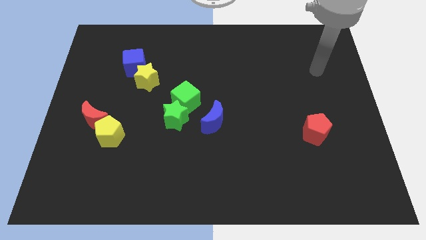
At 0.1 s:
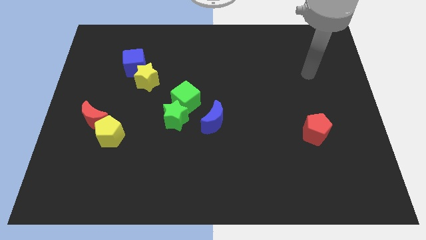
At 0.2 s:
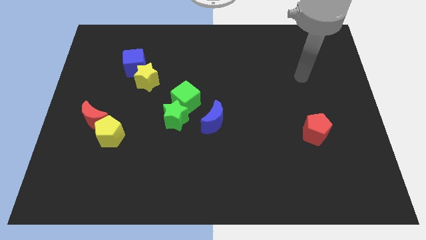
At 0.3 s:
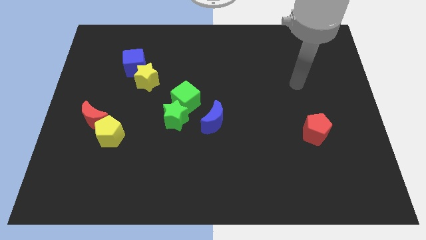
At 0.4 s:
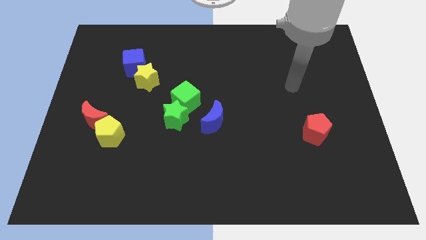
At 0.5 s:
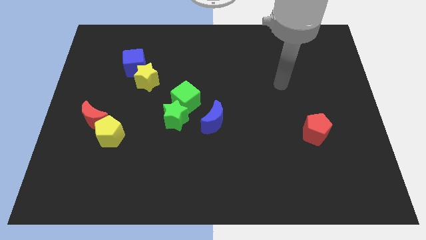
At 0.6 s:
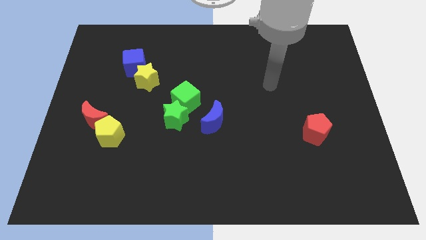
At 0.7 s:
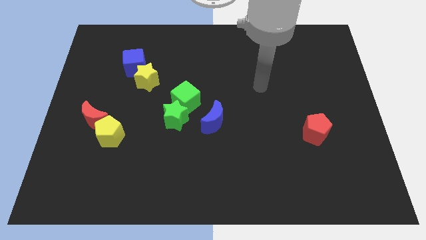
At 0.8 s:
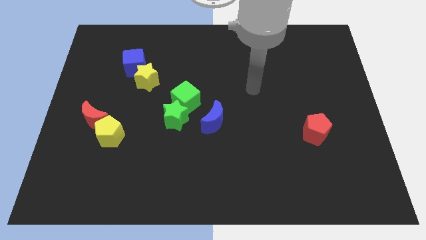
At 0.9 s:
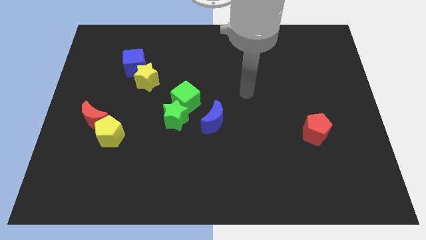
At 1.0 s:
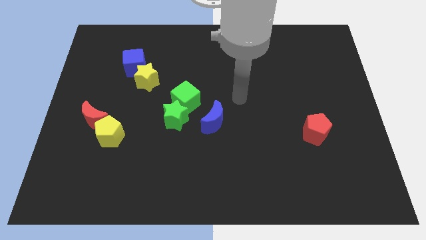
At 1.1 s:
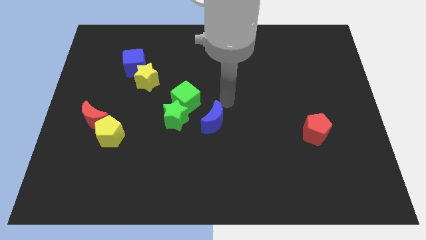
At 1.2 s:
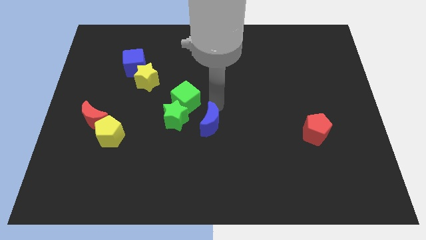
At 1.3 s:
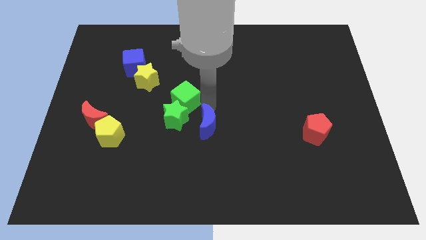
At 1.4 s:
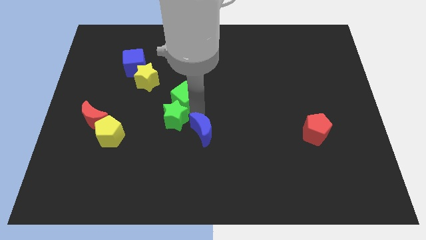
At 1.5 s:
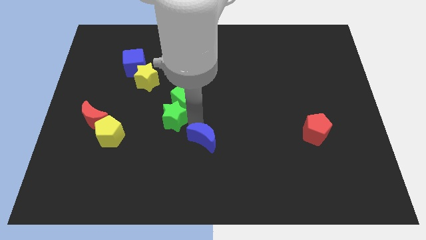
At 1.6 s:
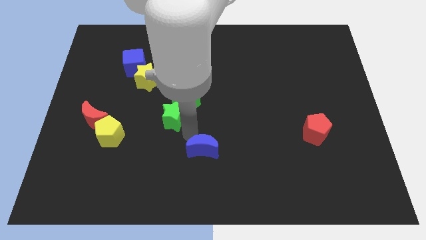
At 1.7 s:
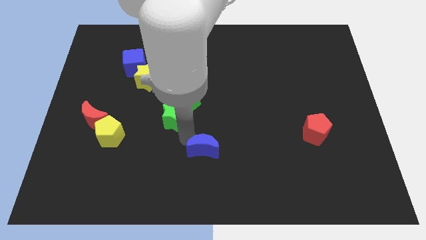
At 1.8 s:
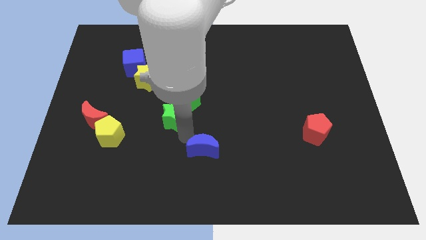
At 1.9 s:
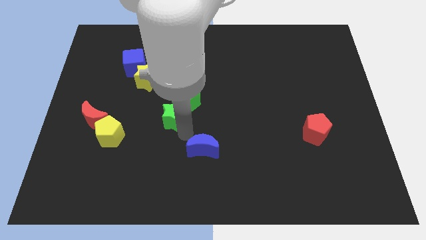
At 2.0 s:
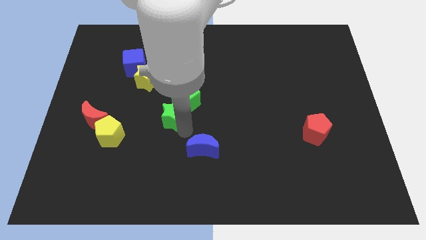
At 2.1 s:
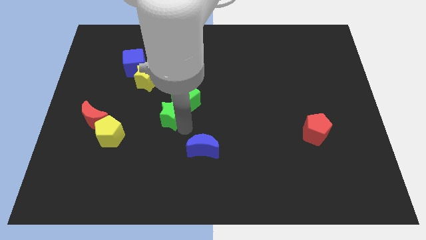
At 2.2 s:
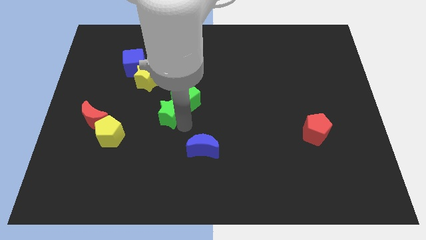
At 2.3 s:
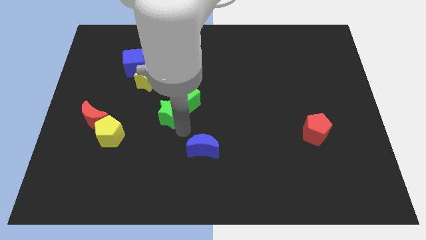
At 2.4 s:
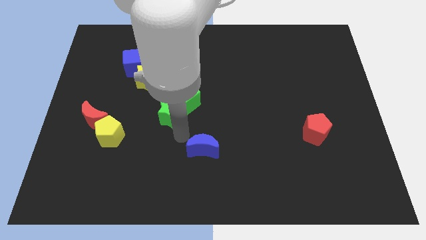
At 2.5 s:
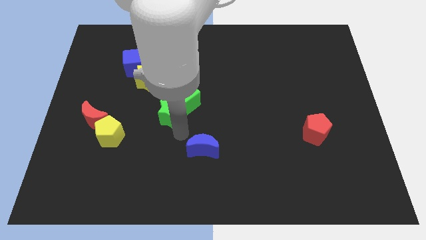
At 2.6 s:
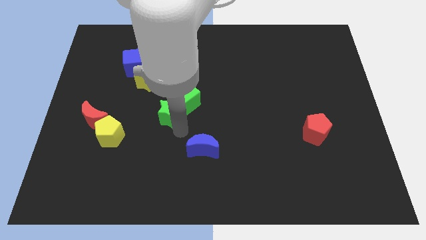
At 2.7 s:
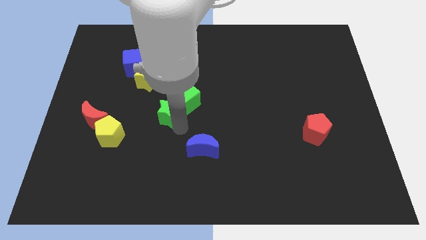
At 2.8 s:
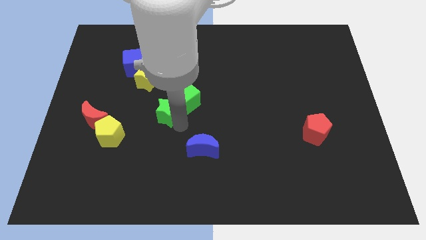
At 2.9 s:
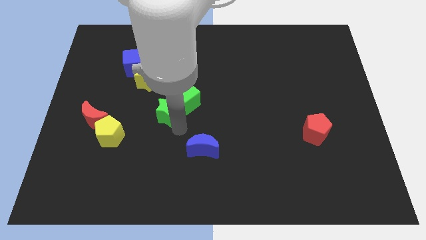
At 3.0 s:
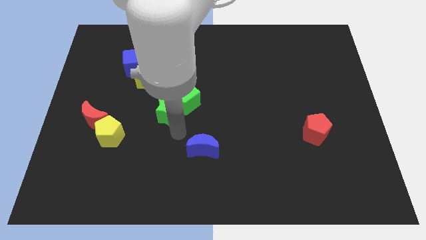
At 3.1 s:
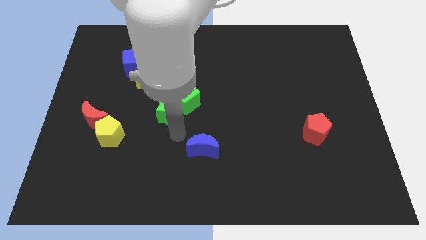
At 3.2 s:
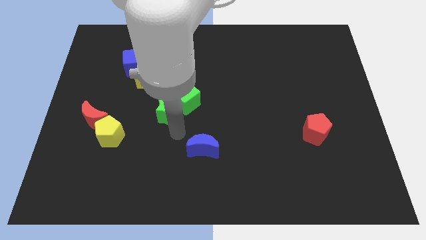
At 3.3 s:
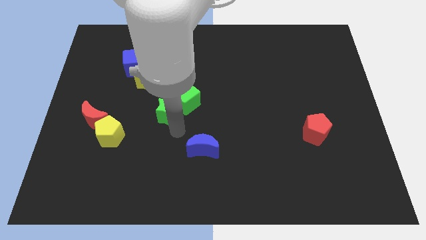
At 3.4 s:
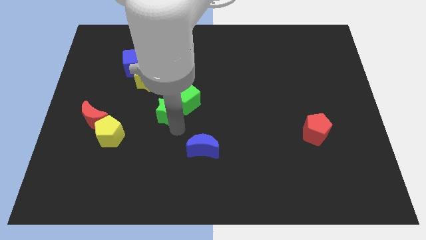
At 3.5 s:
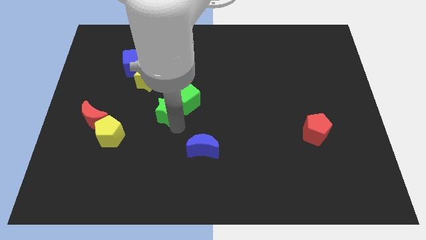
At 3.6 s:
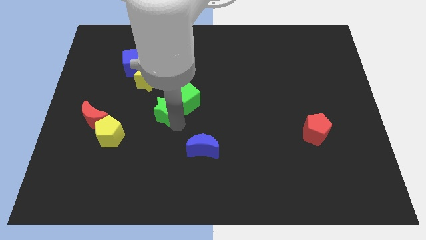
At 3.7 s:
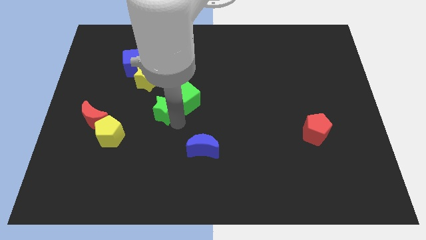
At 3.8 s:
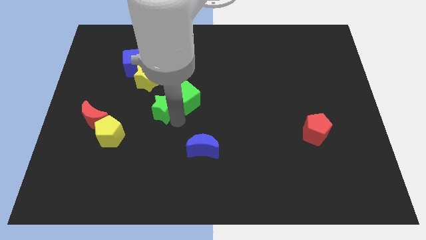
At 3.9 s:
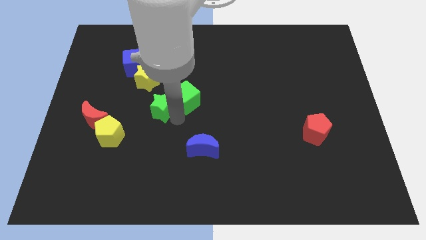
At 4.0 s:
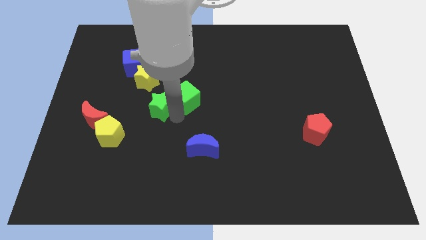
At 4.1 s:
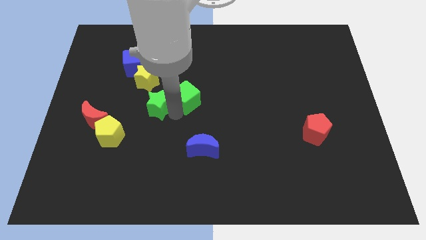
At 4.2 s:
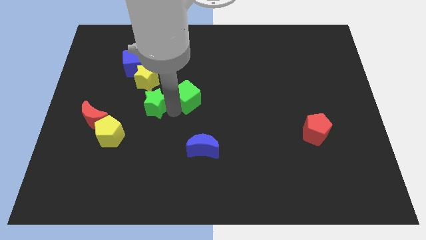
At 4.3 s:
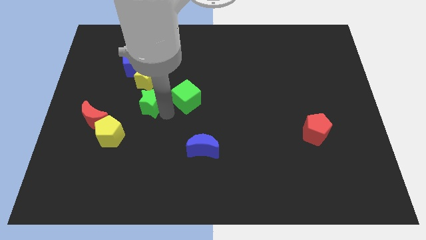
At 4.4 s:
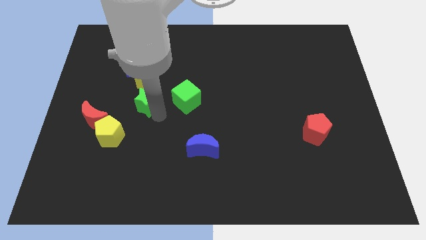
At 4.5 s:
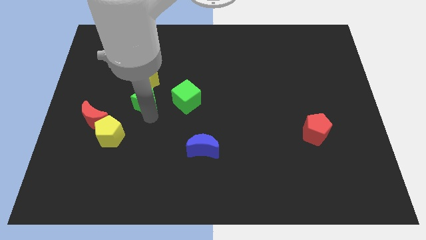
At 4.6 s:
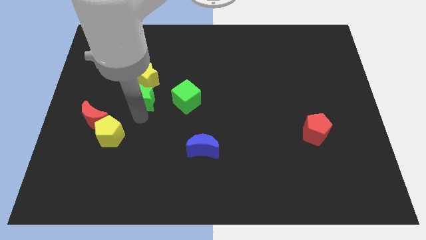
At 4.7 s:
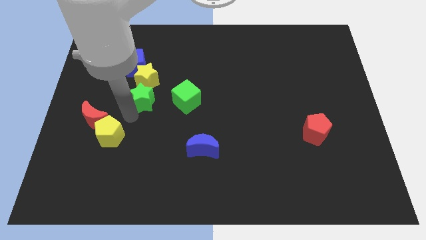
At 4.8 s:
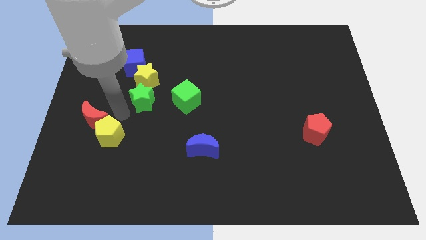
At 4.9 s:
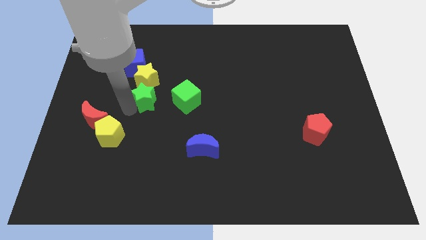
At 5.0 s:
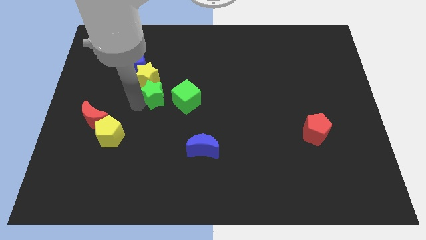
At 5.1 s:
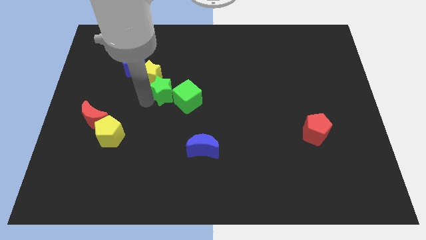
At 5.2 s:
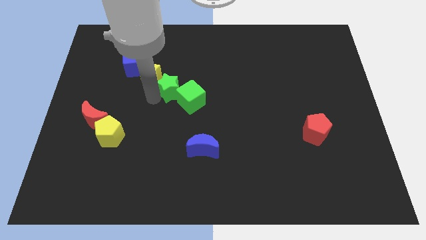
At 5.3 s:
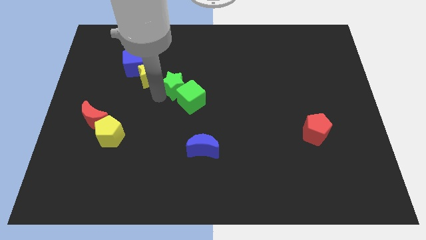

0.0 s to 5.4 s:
slide the green star to the top side of the green cube

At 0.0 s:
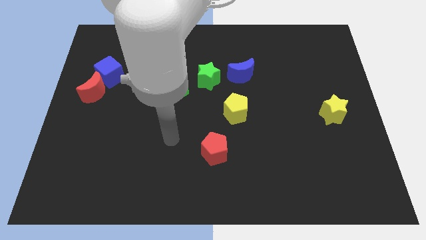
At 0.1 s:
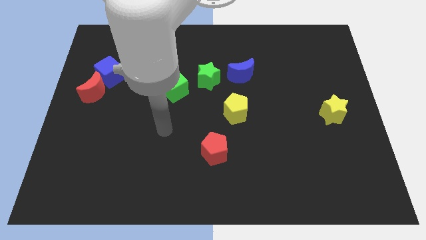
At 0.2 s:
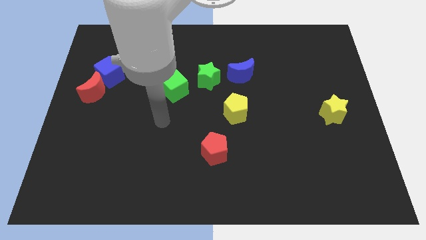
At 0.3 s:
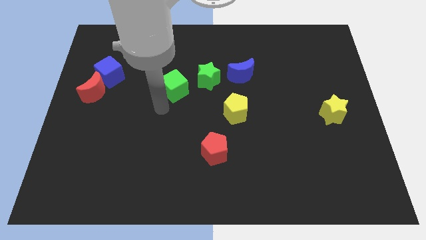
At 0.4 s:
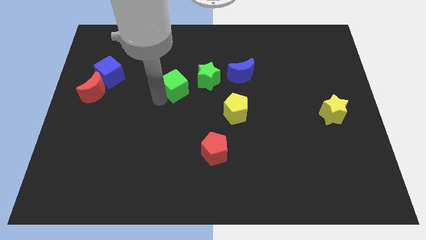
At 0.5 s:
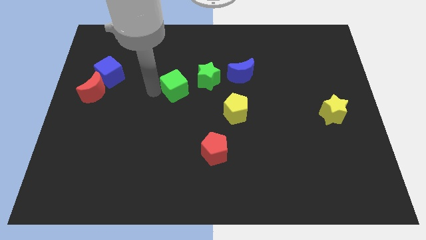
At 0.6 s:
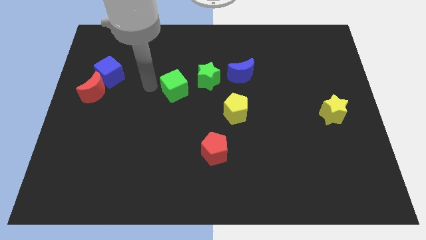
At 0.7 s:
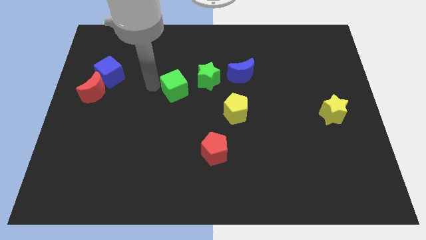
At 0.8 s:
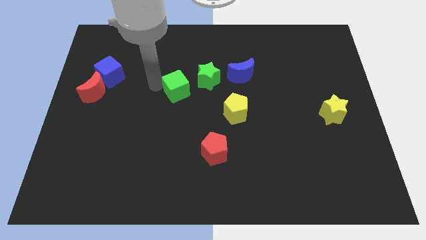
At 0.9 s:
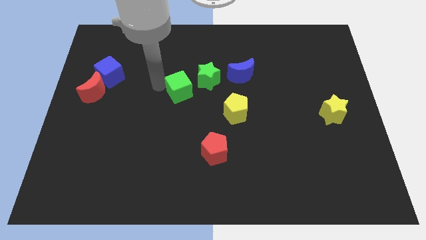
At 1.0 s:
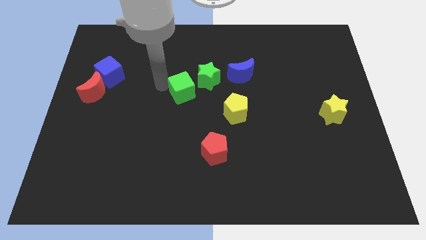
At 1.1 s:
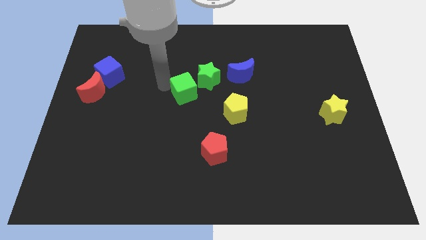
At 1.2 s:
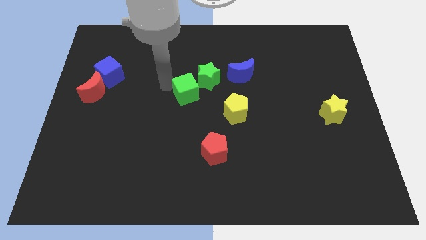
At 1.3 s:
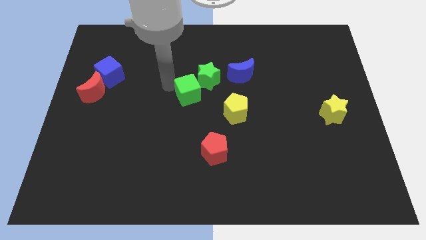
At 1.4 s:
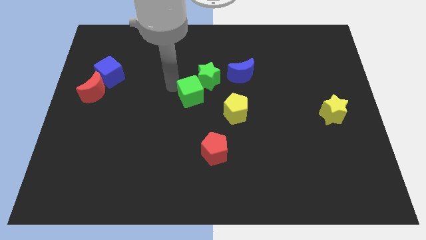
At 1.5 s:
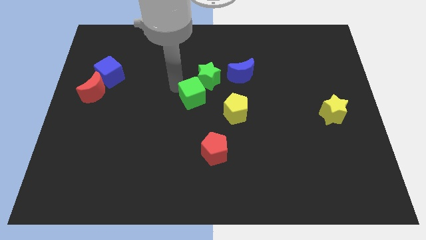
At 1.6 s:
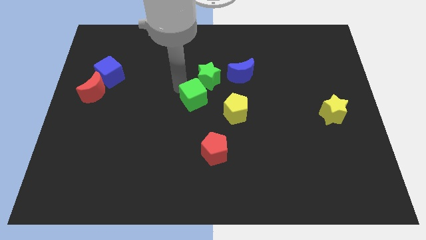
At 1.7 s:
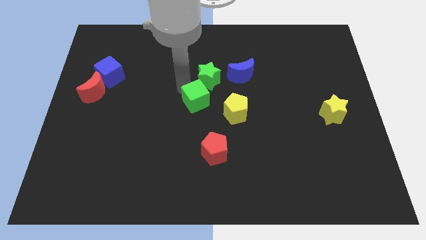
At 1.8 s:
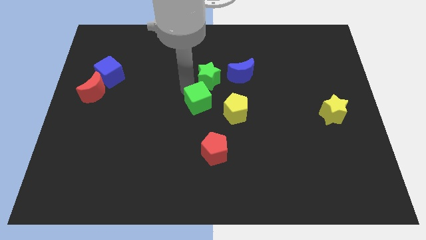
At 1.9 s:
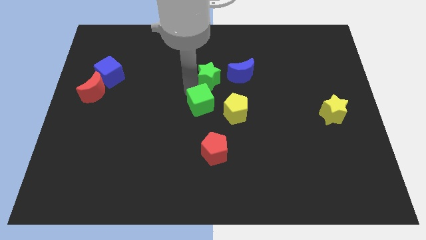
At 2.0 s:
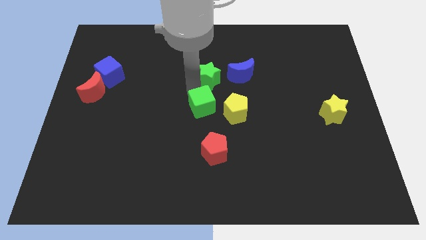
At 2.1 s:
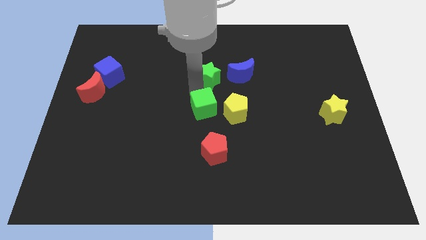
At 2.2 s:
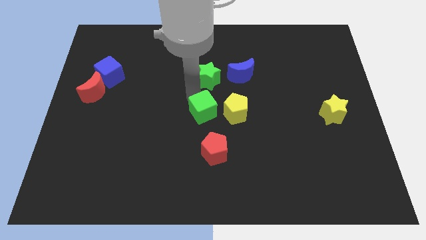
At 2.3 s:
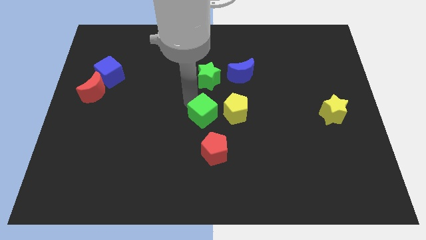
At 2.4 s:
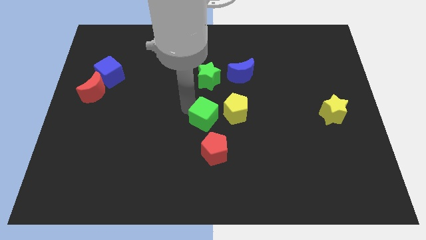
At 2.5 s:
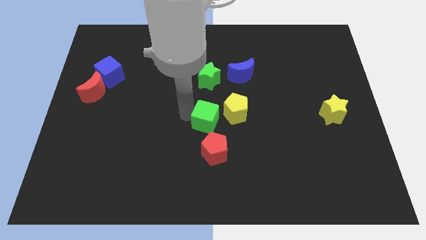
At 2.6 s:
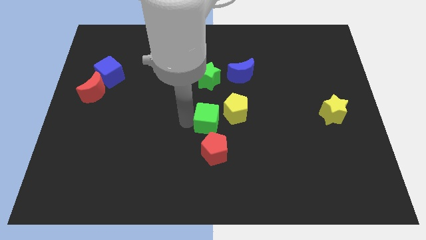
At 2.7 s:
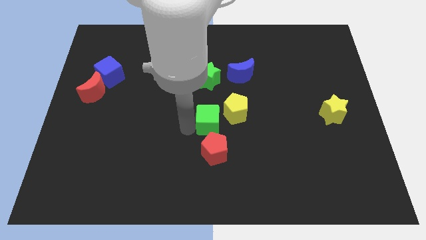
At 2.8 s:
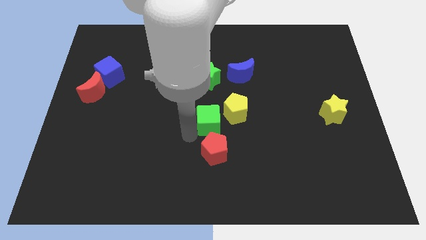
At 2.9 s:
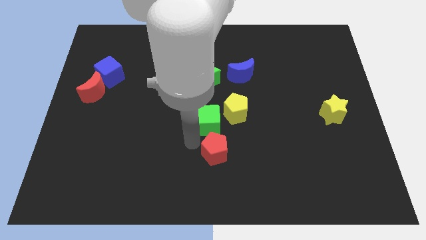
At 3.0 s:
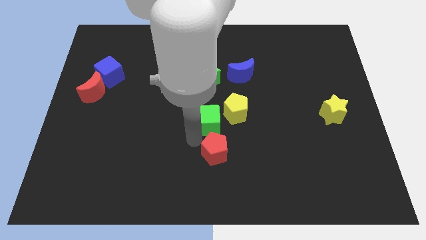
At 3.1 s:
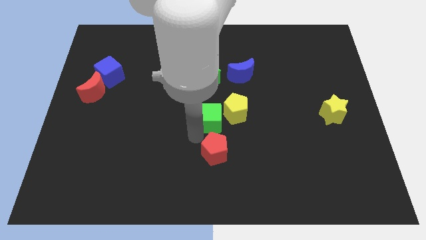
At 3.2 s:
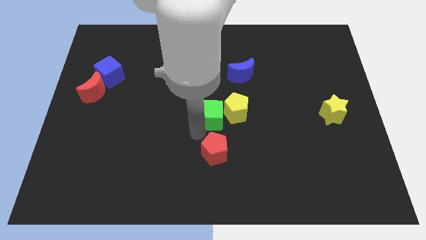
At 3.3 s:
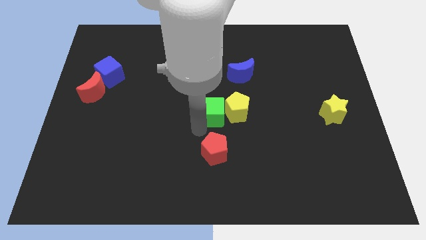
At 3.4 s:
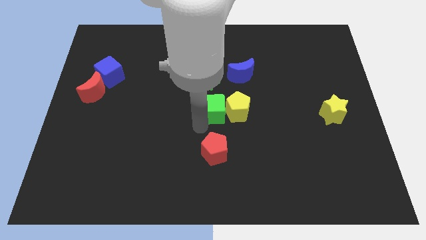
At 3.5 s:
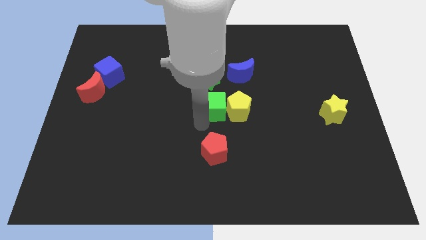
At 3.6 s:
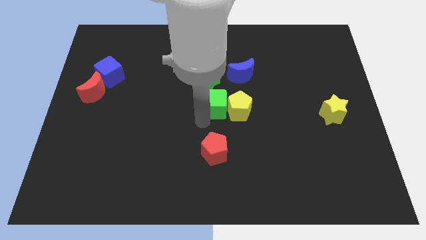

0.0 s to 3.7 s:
put the green cube diagonally down and to the right of the green star
